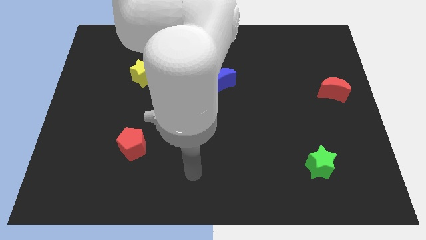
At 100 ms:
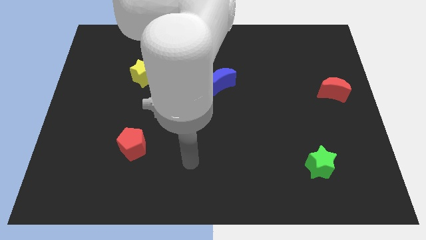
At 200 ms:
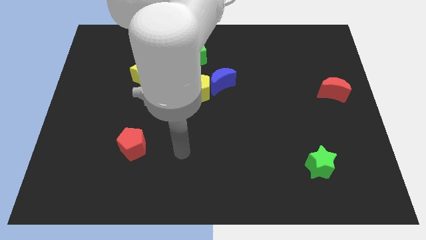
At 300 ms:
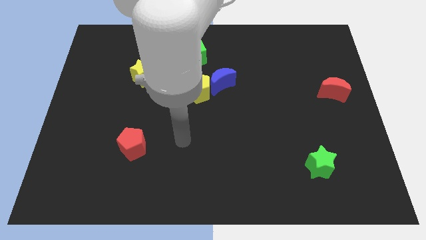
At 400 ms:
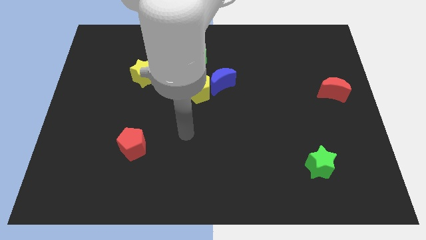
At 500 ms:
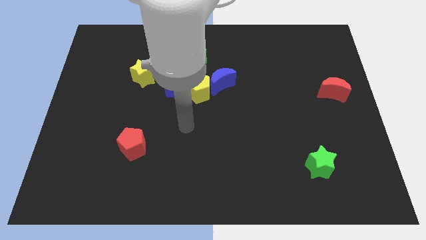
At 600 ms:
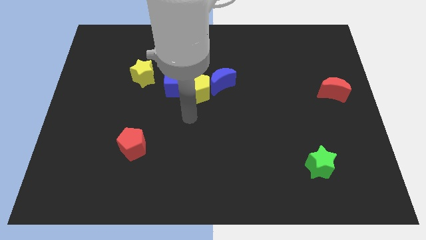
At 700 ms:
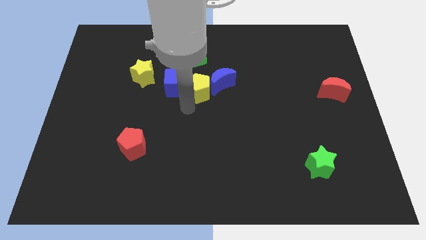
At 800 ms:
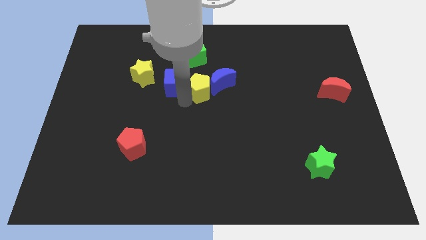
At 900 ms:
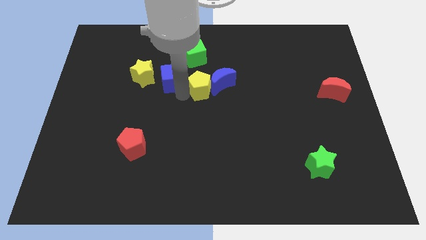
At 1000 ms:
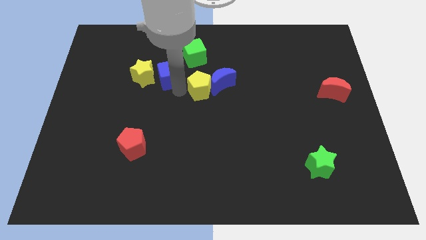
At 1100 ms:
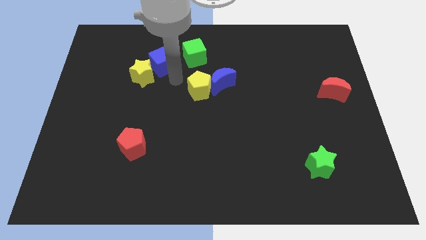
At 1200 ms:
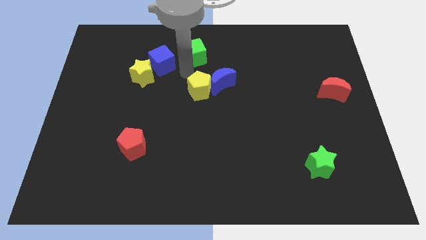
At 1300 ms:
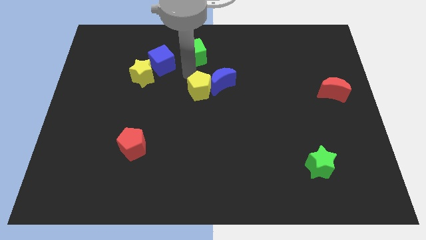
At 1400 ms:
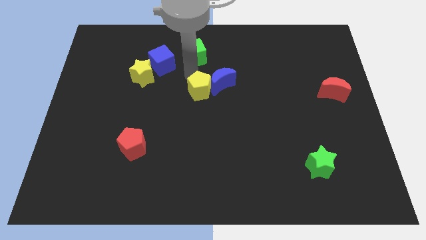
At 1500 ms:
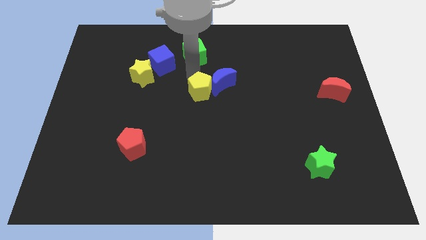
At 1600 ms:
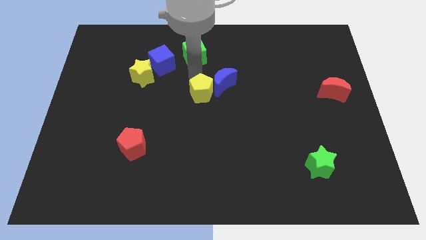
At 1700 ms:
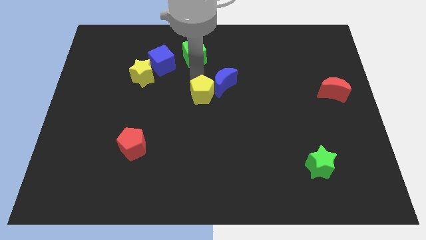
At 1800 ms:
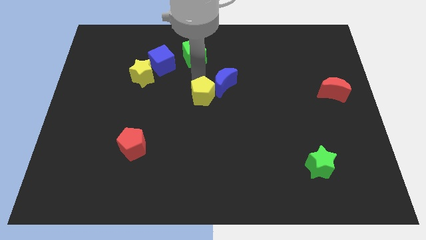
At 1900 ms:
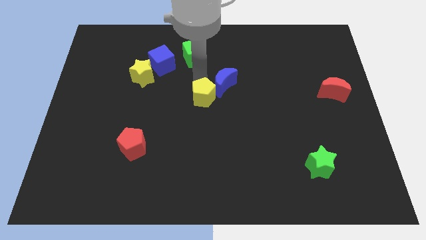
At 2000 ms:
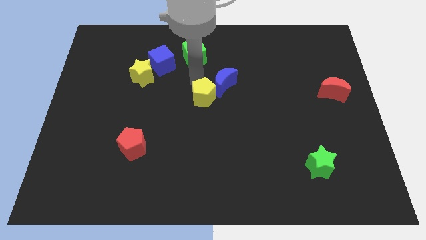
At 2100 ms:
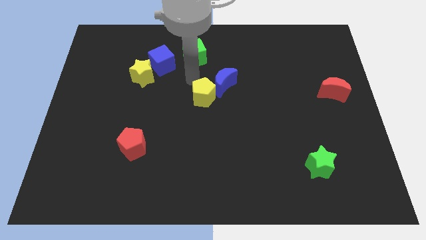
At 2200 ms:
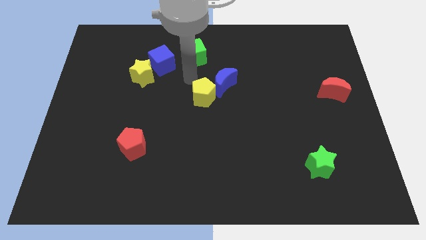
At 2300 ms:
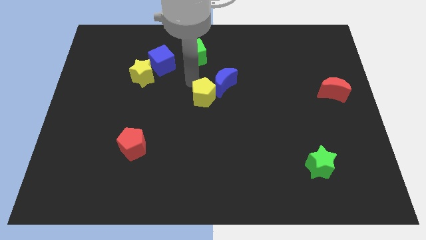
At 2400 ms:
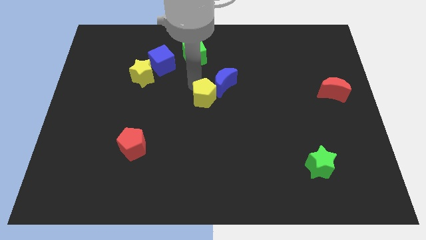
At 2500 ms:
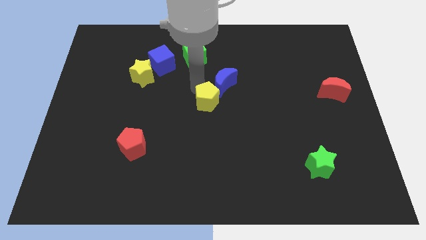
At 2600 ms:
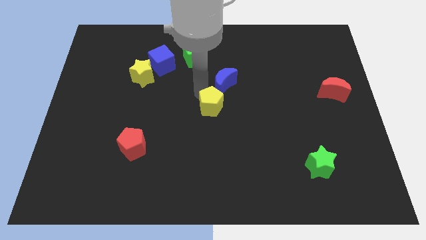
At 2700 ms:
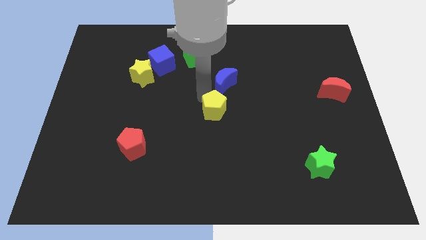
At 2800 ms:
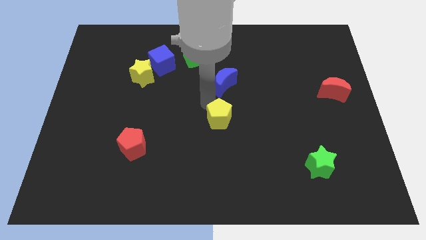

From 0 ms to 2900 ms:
move the yellow pentagon somewhat diagonally downwards and to the right

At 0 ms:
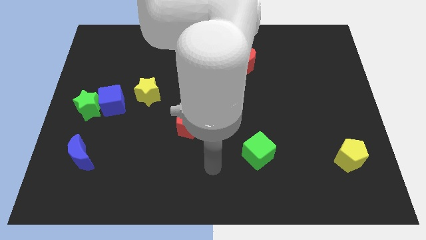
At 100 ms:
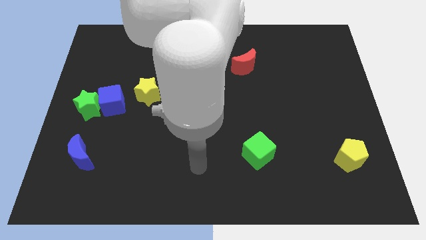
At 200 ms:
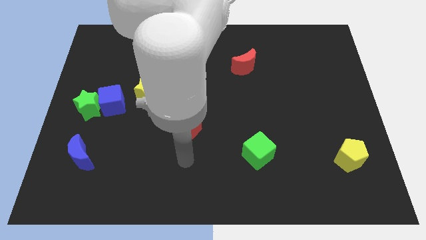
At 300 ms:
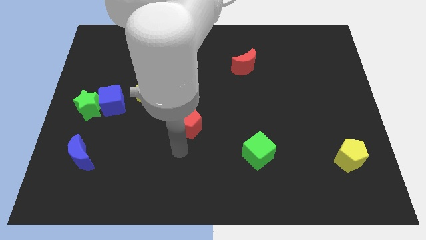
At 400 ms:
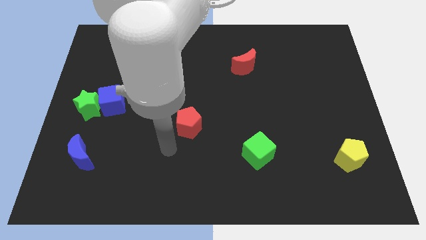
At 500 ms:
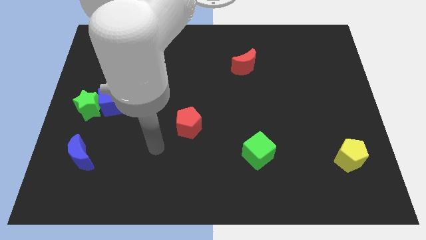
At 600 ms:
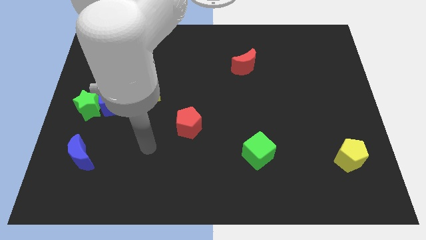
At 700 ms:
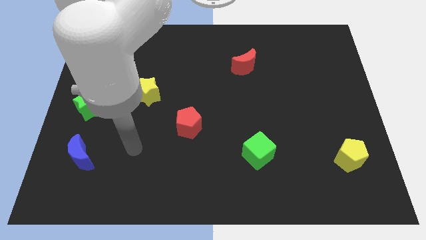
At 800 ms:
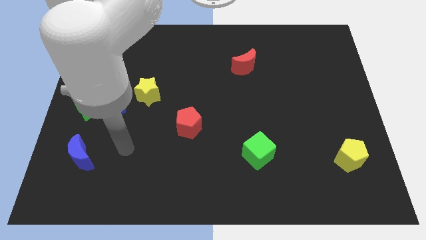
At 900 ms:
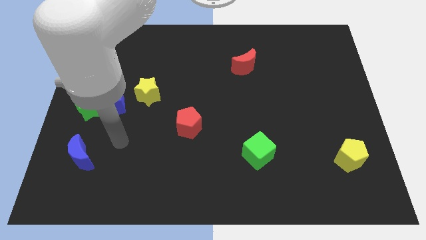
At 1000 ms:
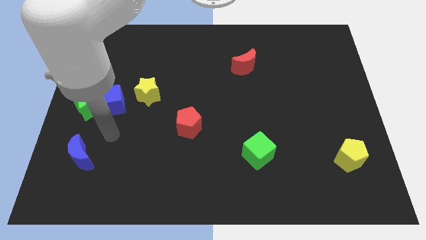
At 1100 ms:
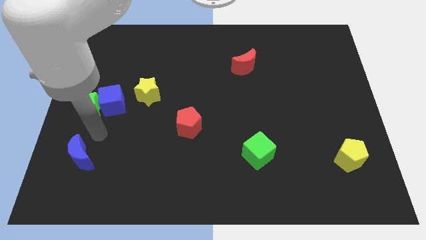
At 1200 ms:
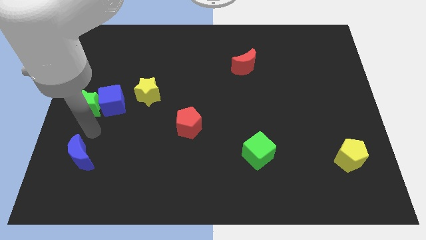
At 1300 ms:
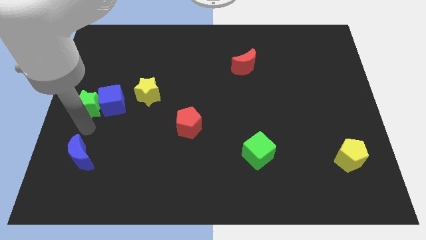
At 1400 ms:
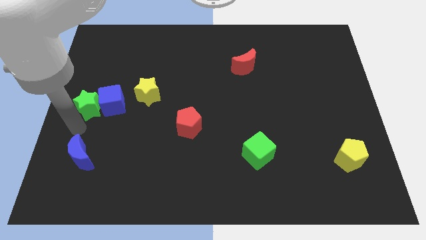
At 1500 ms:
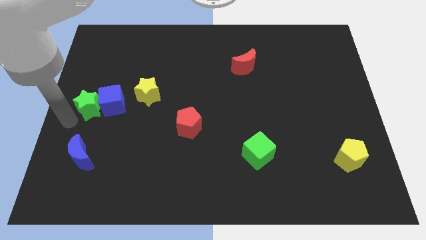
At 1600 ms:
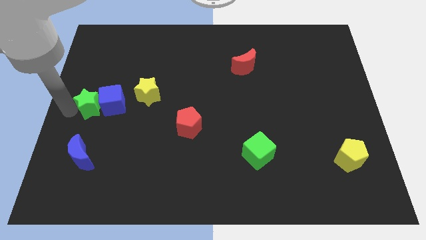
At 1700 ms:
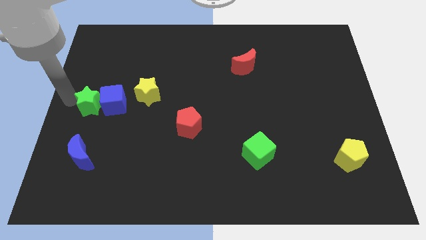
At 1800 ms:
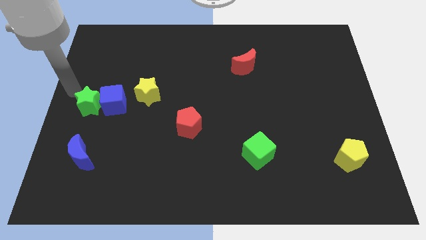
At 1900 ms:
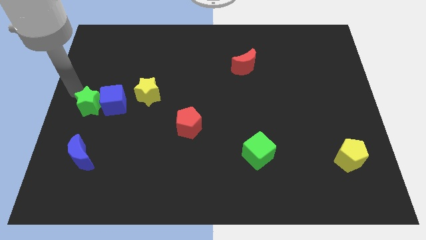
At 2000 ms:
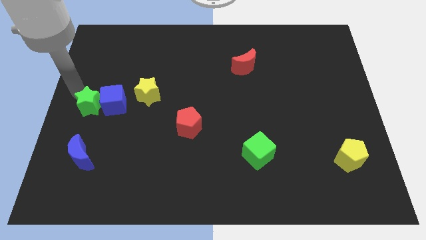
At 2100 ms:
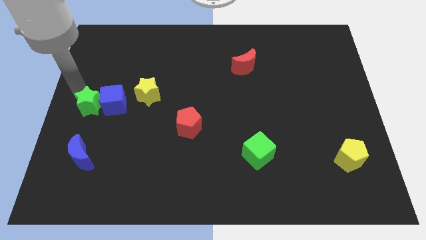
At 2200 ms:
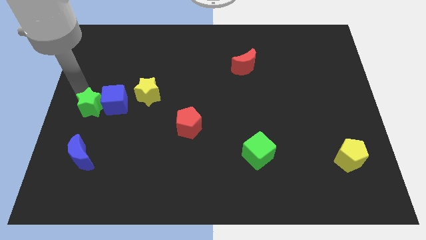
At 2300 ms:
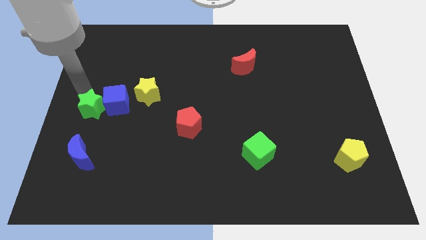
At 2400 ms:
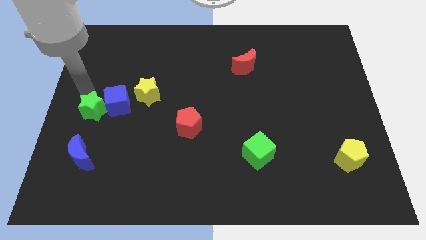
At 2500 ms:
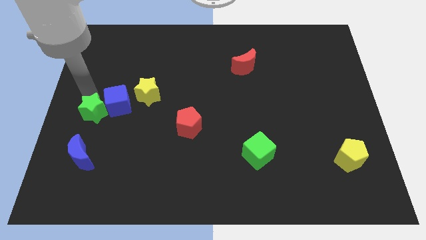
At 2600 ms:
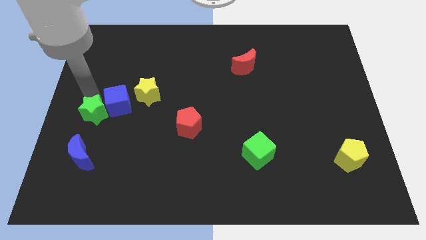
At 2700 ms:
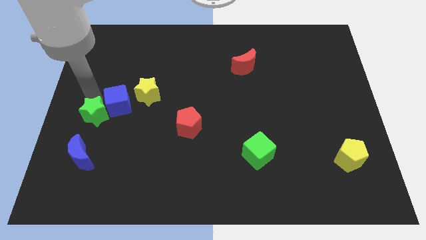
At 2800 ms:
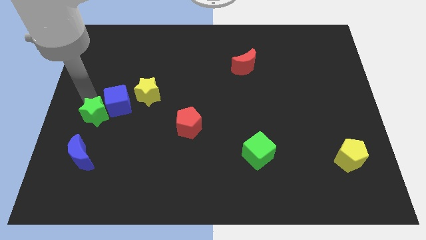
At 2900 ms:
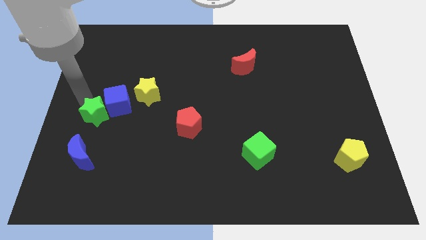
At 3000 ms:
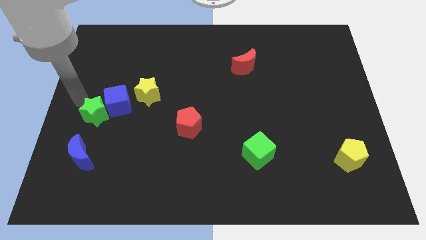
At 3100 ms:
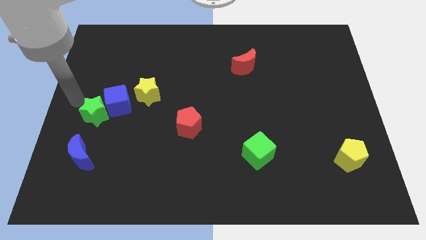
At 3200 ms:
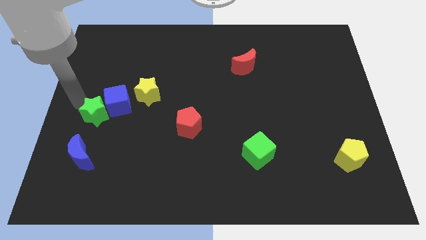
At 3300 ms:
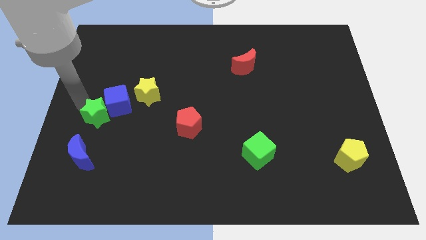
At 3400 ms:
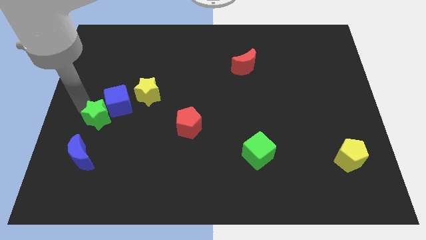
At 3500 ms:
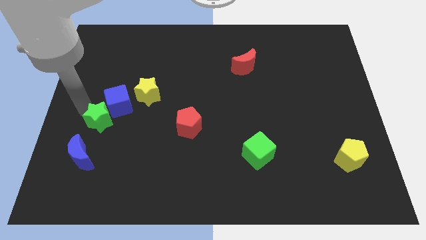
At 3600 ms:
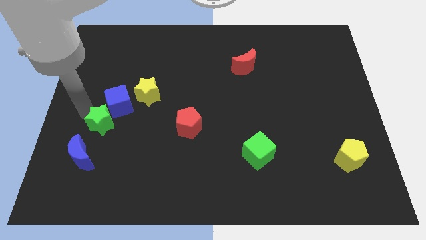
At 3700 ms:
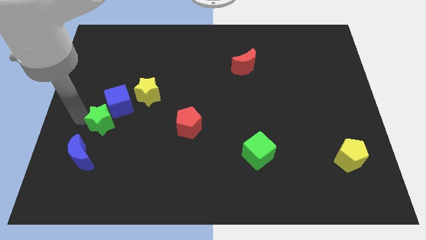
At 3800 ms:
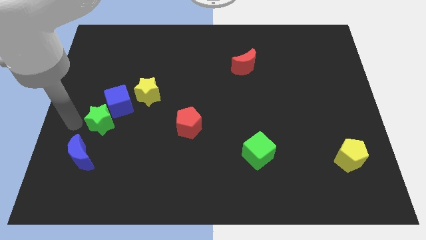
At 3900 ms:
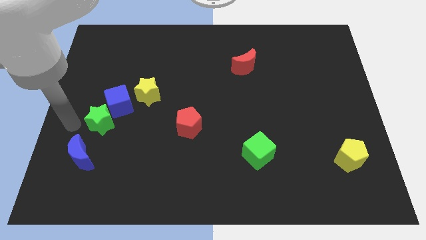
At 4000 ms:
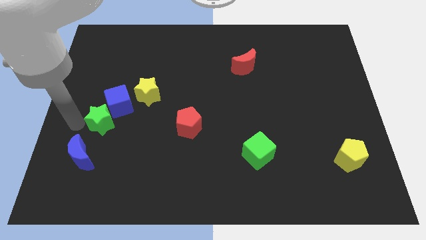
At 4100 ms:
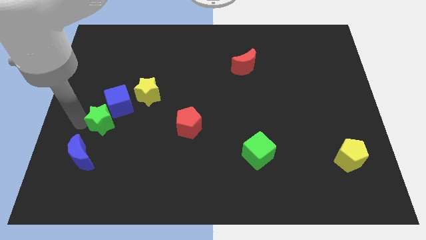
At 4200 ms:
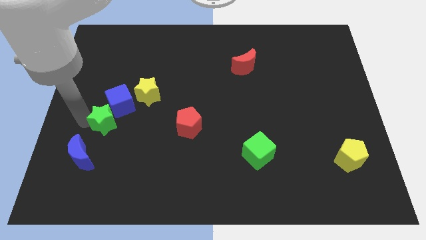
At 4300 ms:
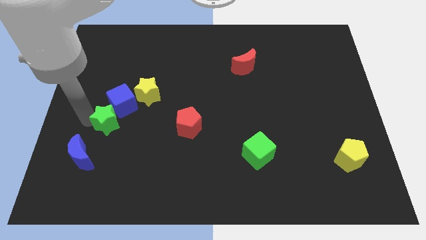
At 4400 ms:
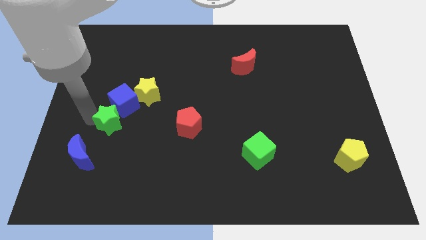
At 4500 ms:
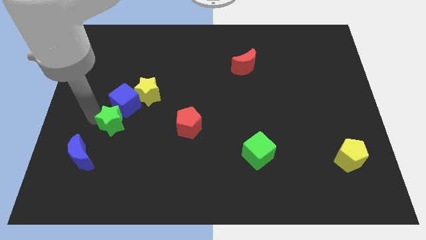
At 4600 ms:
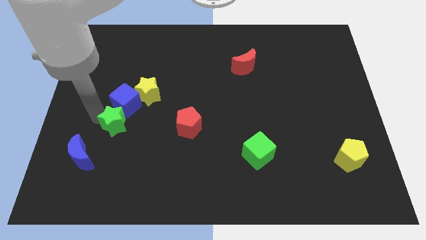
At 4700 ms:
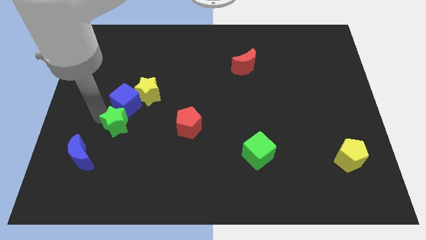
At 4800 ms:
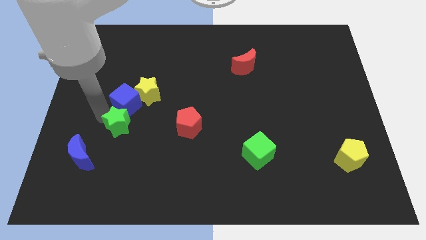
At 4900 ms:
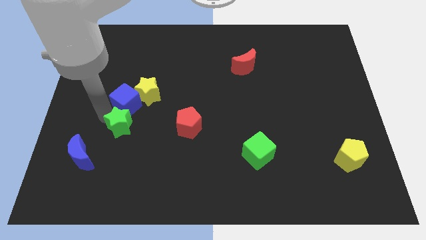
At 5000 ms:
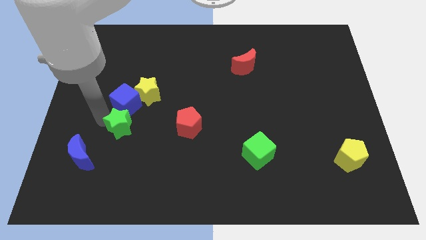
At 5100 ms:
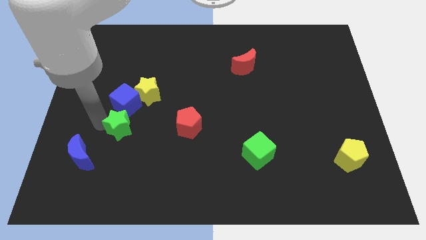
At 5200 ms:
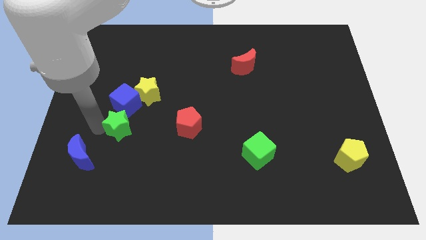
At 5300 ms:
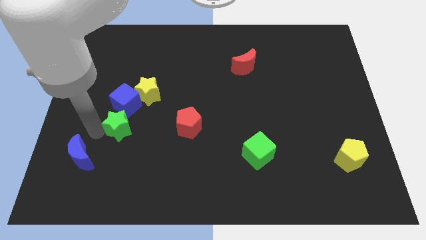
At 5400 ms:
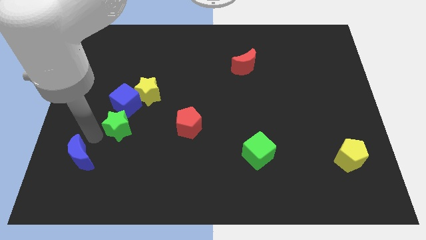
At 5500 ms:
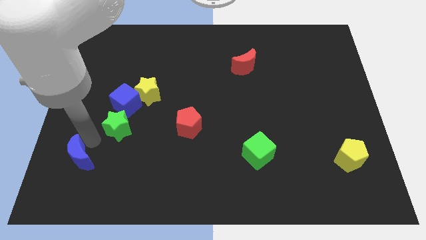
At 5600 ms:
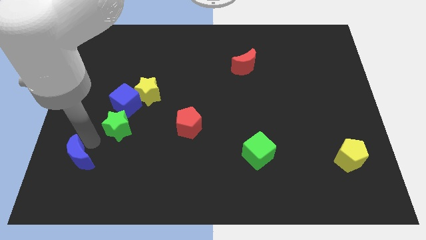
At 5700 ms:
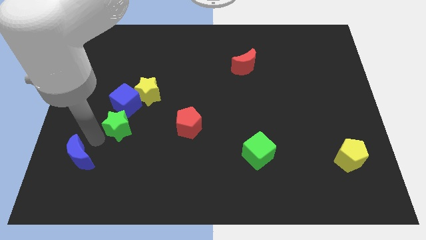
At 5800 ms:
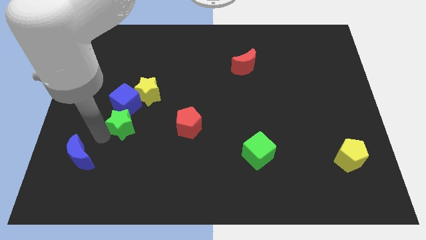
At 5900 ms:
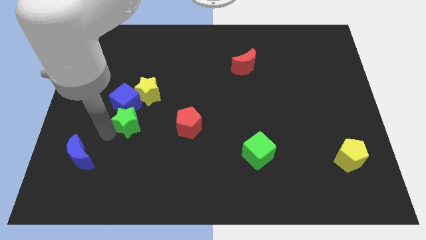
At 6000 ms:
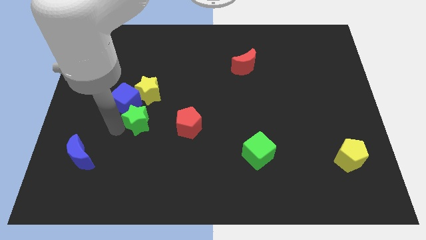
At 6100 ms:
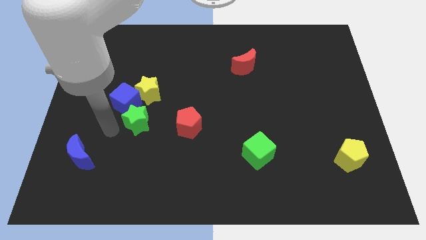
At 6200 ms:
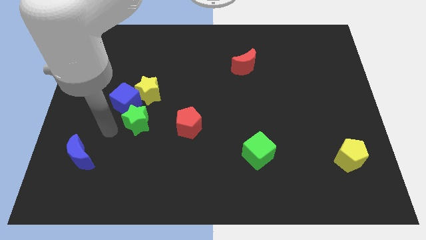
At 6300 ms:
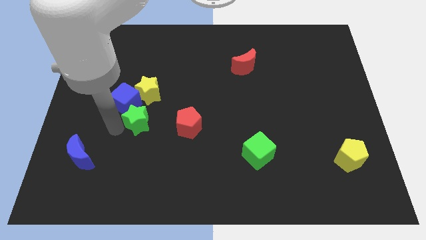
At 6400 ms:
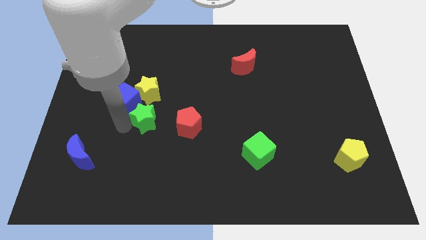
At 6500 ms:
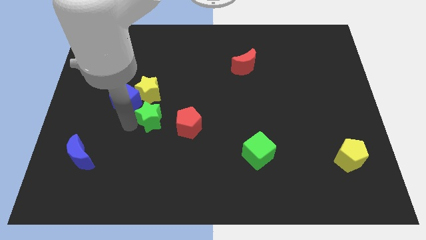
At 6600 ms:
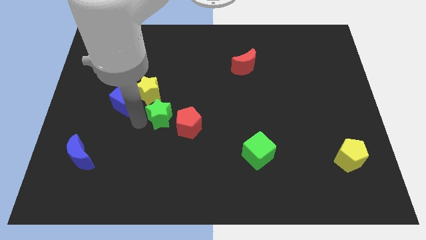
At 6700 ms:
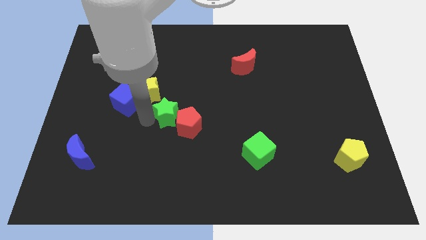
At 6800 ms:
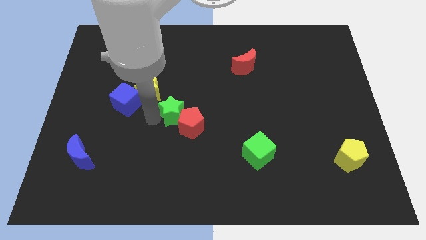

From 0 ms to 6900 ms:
move the green star right
